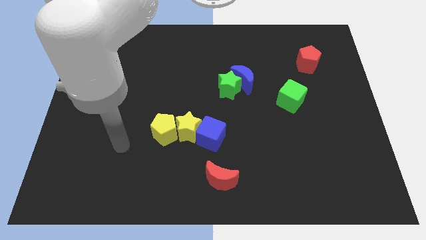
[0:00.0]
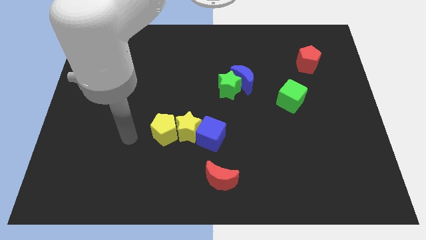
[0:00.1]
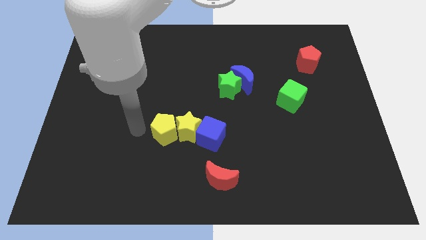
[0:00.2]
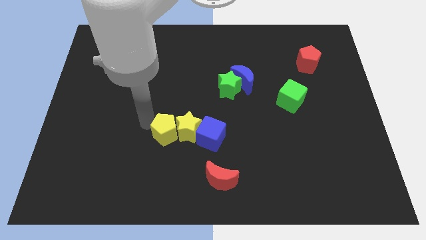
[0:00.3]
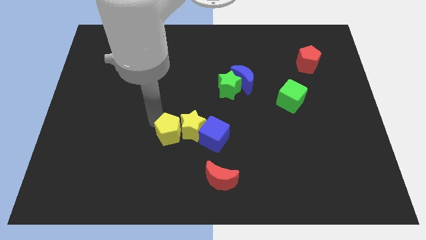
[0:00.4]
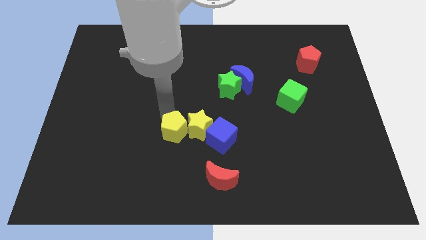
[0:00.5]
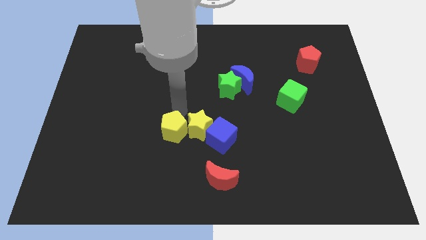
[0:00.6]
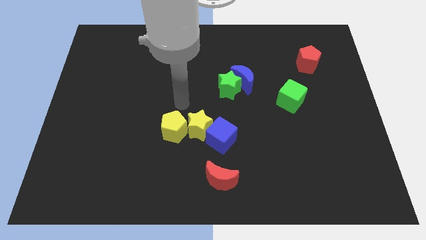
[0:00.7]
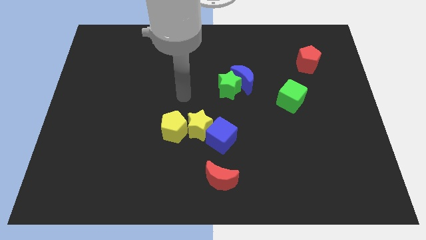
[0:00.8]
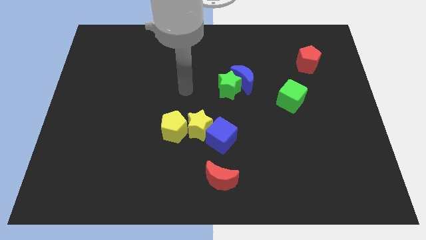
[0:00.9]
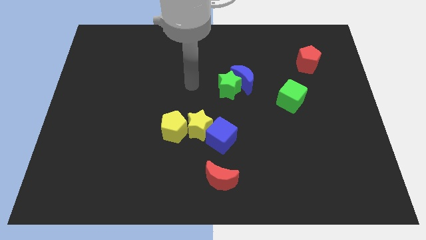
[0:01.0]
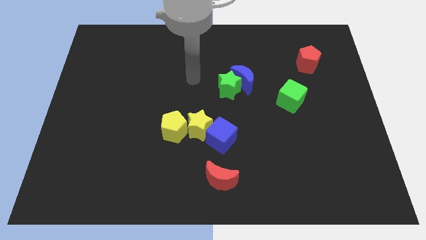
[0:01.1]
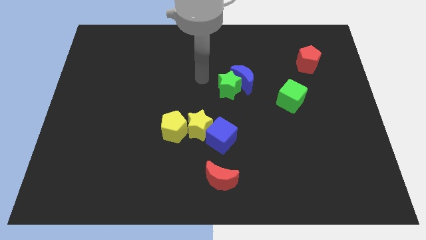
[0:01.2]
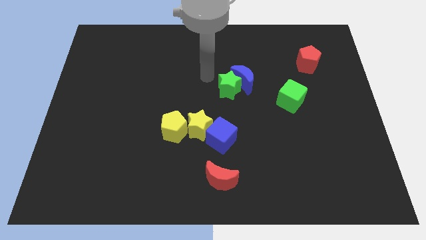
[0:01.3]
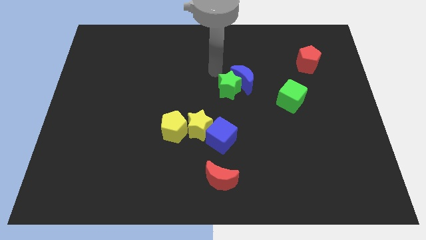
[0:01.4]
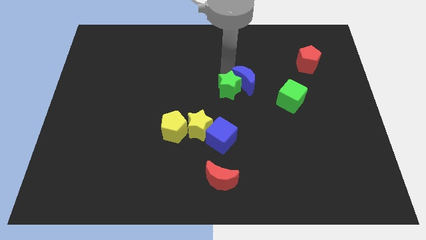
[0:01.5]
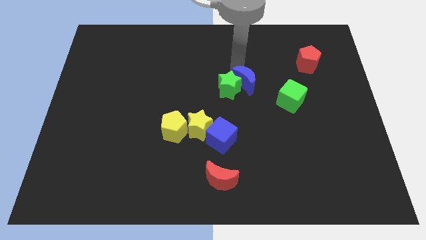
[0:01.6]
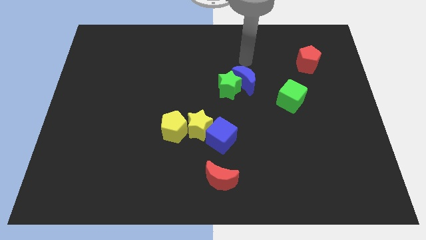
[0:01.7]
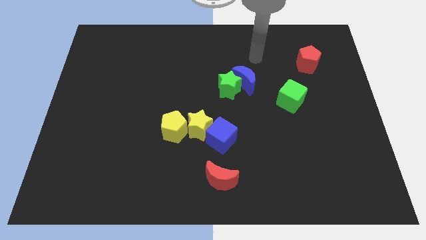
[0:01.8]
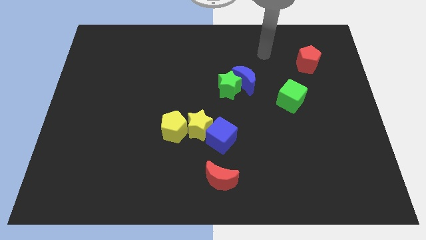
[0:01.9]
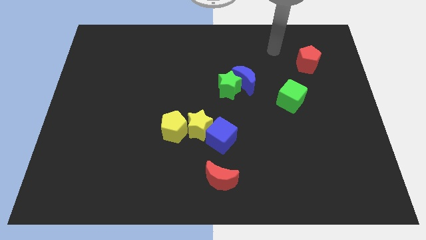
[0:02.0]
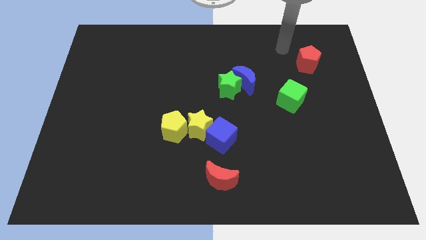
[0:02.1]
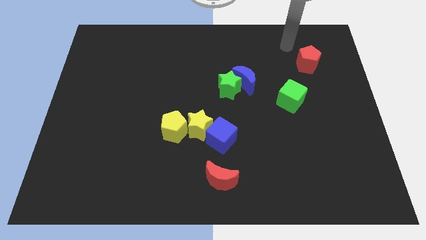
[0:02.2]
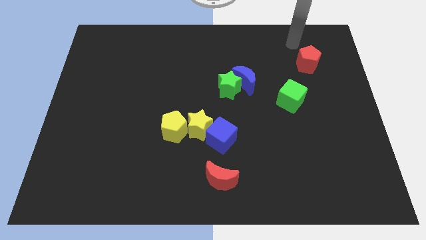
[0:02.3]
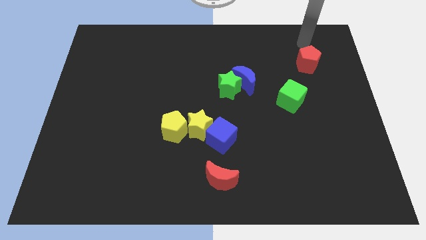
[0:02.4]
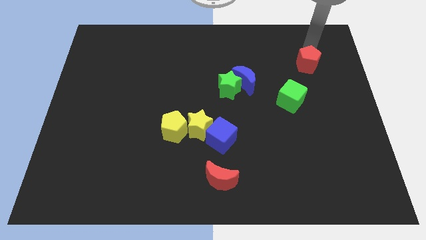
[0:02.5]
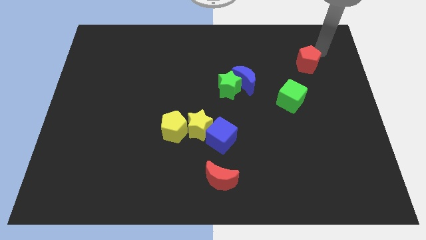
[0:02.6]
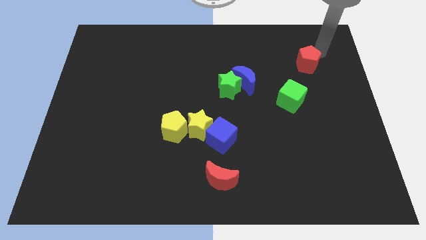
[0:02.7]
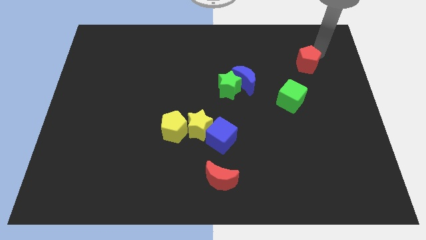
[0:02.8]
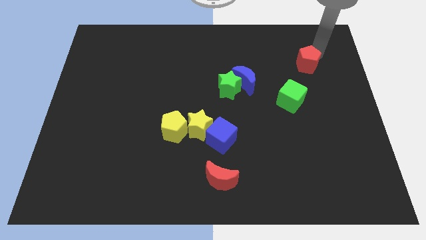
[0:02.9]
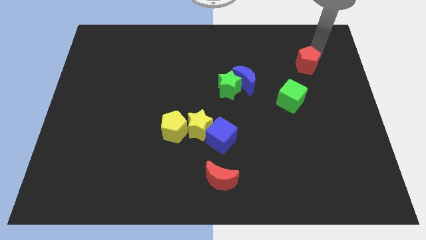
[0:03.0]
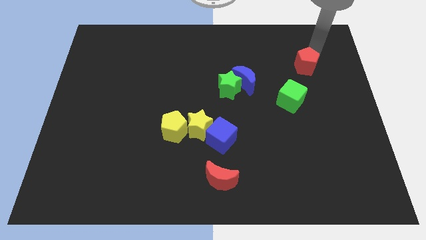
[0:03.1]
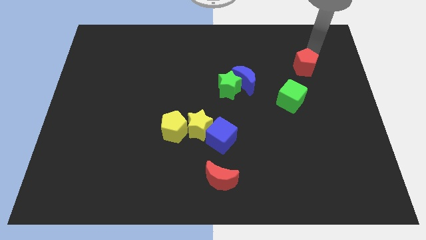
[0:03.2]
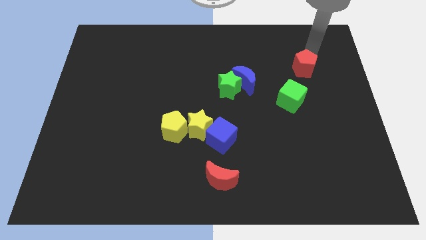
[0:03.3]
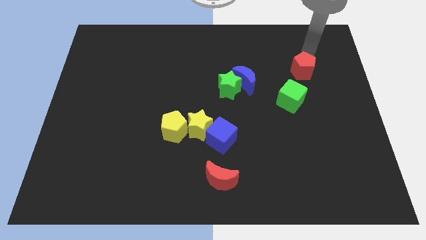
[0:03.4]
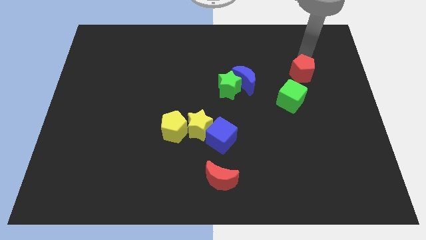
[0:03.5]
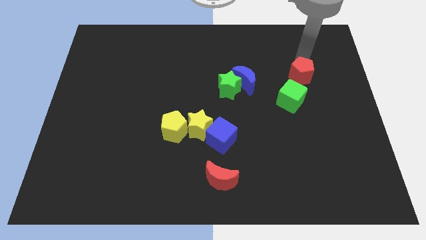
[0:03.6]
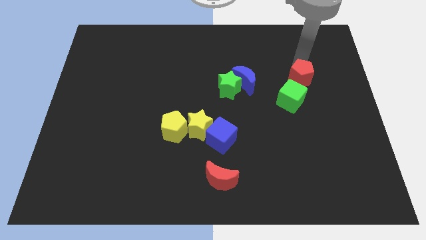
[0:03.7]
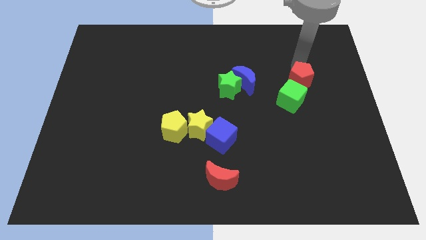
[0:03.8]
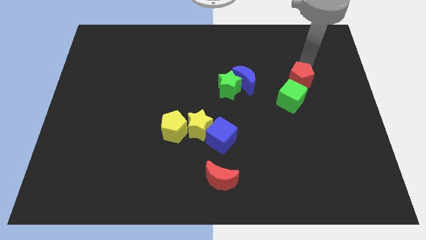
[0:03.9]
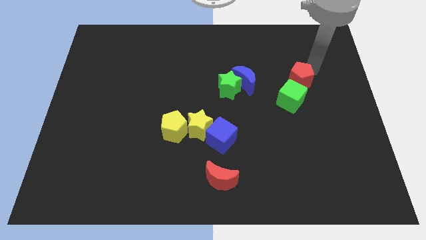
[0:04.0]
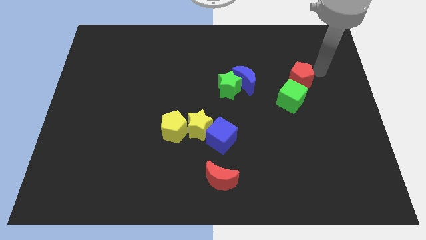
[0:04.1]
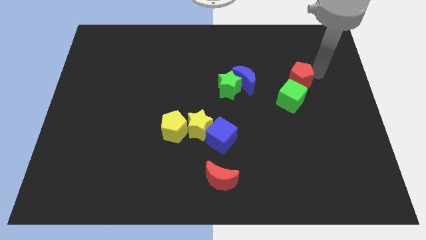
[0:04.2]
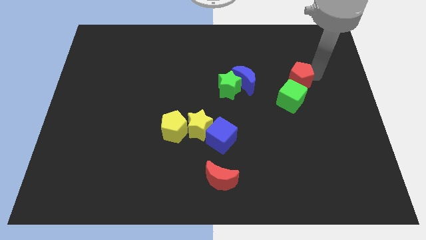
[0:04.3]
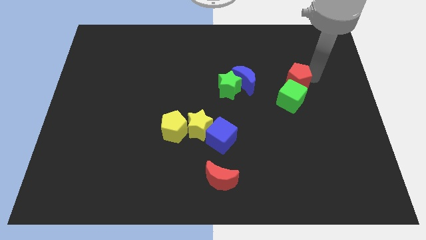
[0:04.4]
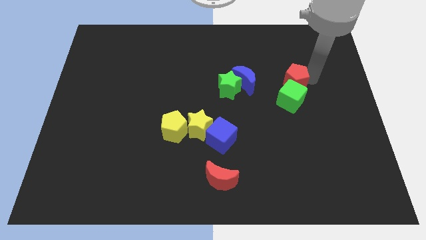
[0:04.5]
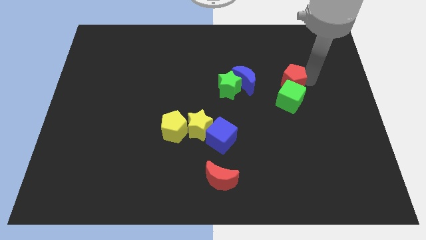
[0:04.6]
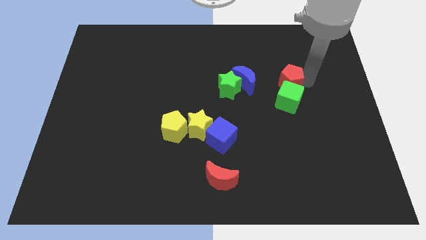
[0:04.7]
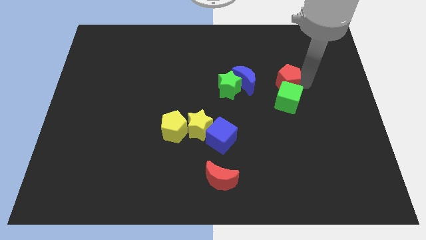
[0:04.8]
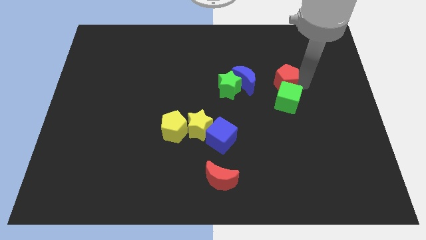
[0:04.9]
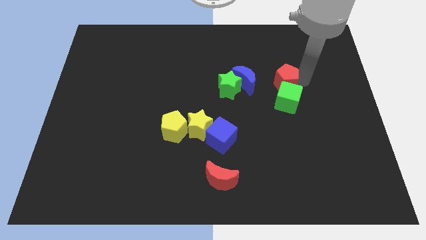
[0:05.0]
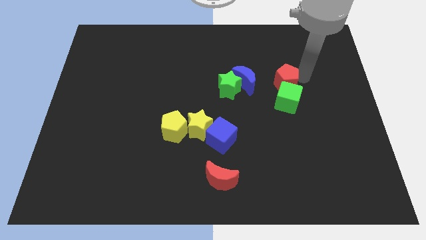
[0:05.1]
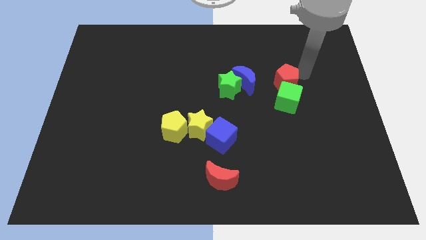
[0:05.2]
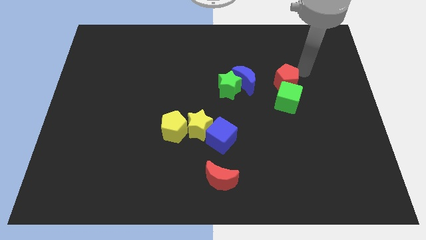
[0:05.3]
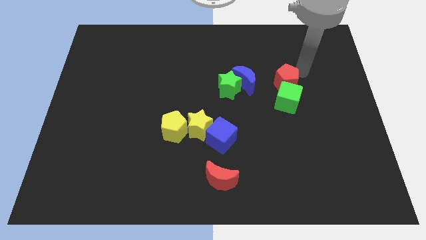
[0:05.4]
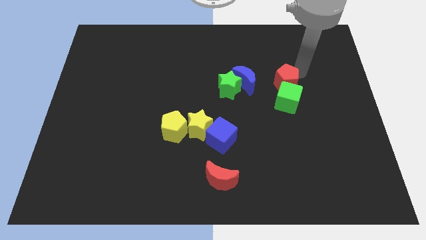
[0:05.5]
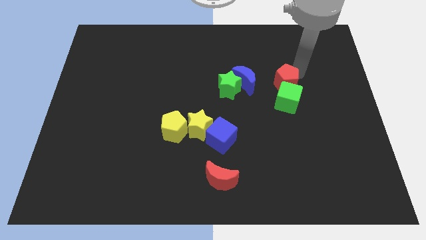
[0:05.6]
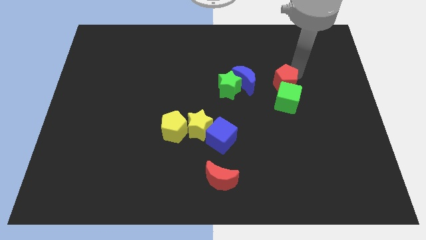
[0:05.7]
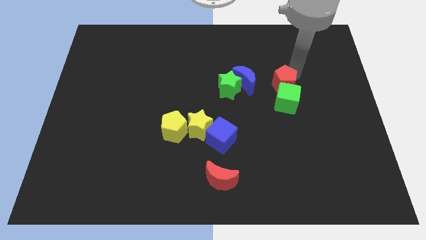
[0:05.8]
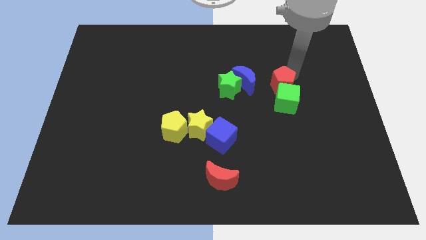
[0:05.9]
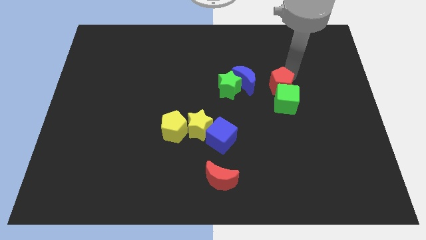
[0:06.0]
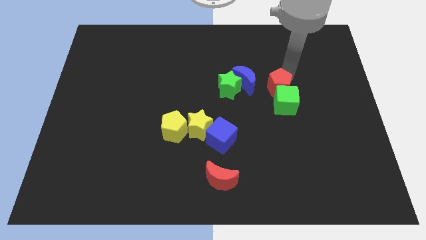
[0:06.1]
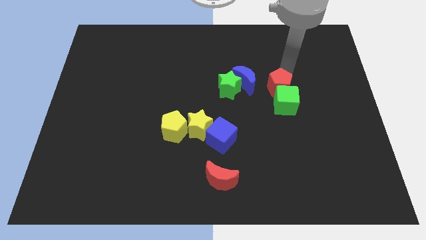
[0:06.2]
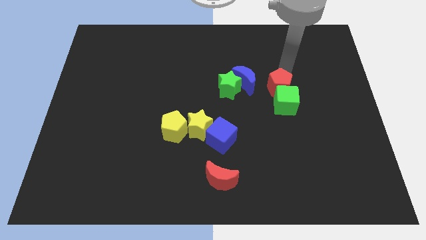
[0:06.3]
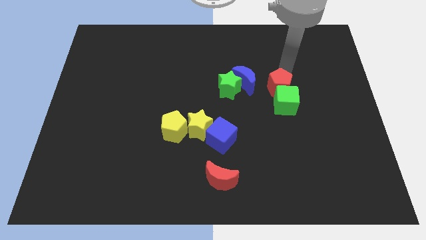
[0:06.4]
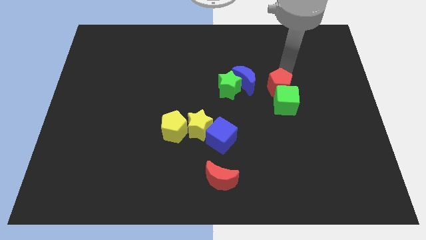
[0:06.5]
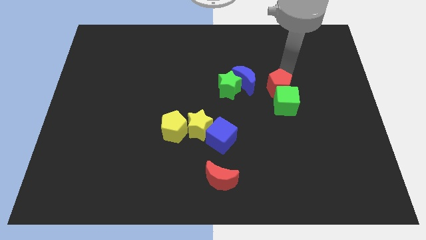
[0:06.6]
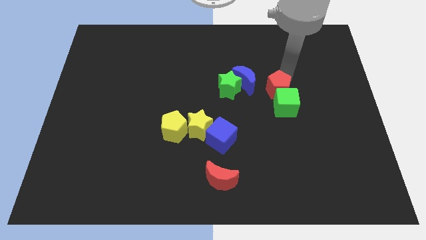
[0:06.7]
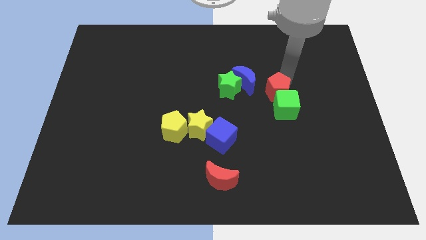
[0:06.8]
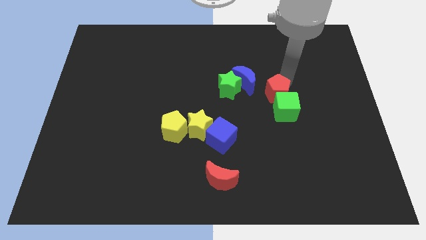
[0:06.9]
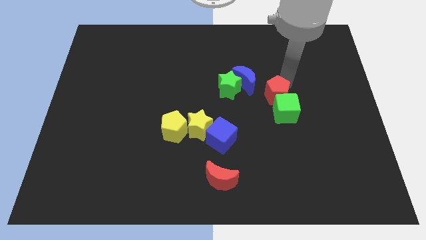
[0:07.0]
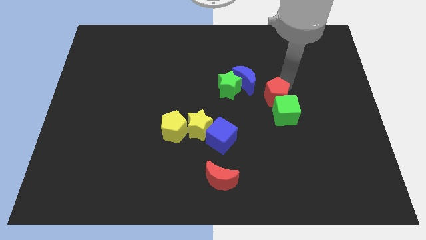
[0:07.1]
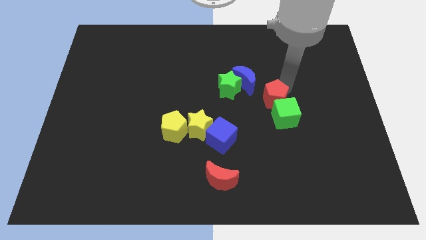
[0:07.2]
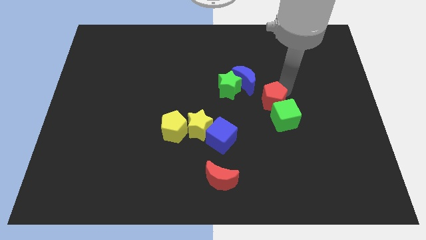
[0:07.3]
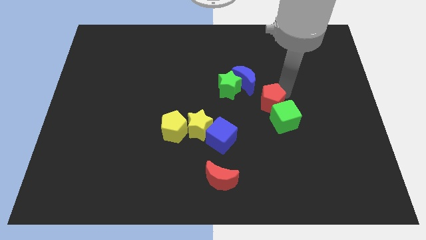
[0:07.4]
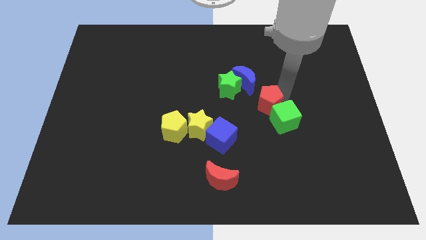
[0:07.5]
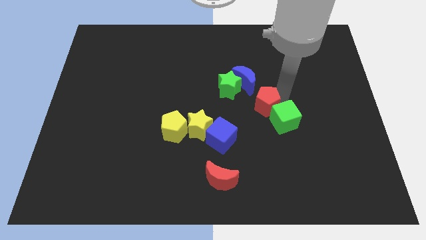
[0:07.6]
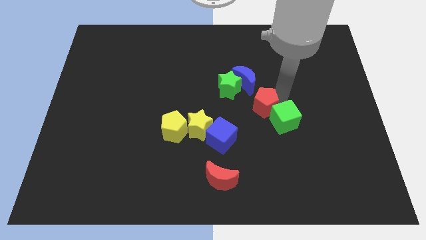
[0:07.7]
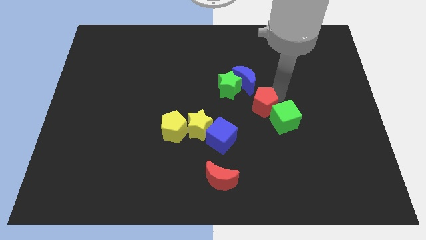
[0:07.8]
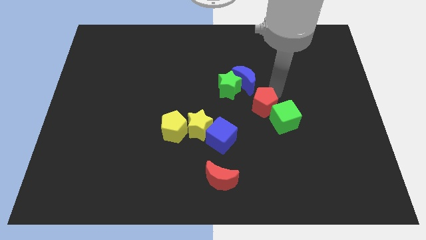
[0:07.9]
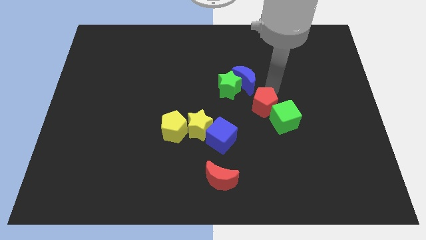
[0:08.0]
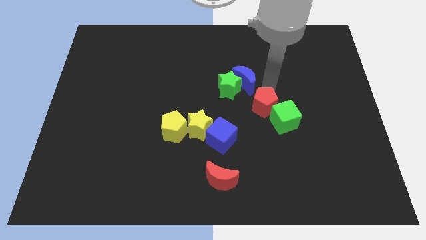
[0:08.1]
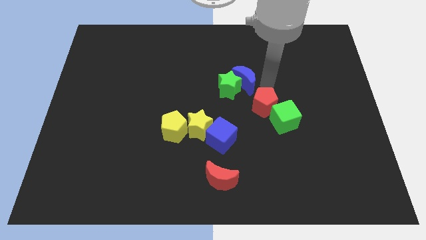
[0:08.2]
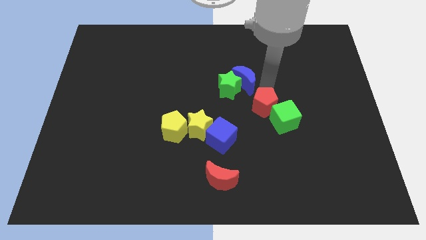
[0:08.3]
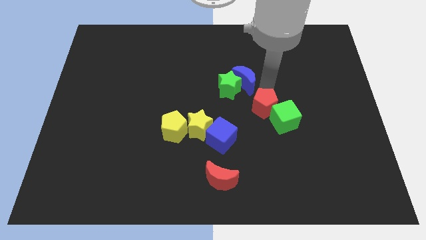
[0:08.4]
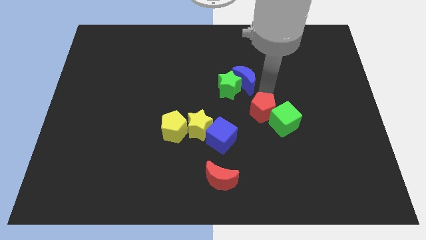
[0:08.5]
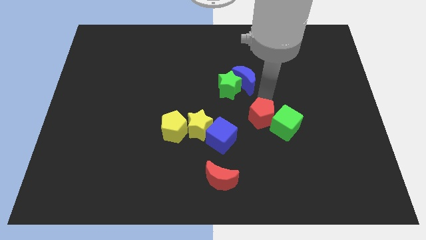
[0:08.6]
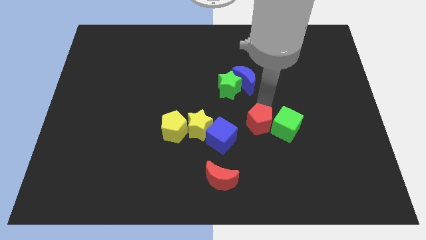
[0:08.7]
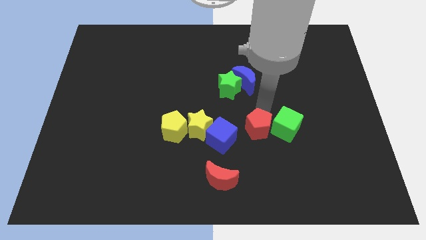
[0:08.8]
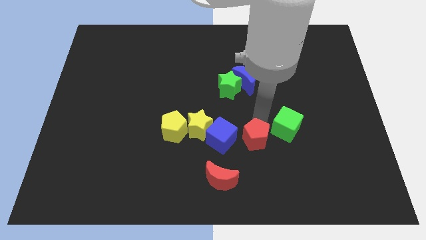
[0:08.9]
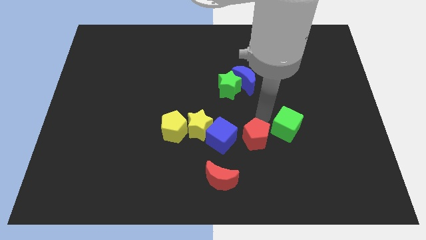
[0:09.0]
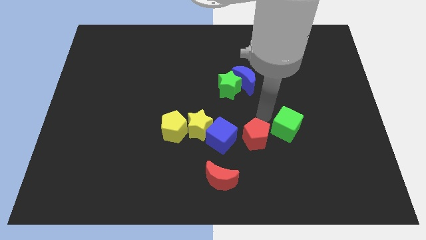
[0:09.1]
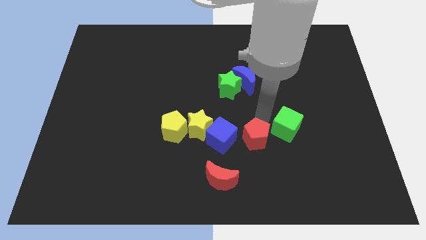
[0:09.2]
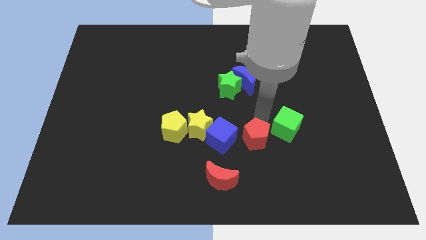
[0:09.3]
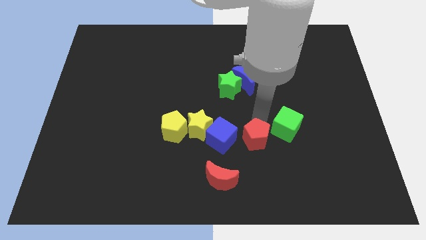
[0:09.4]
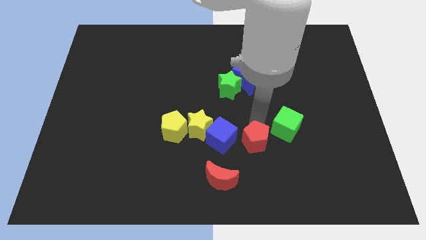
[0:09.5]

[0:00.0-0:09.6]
put the red pentagon diagonally down and to the right of the blue cube
